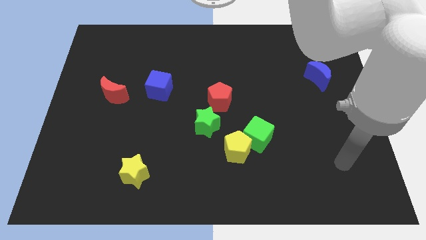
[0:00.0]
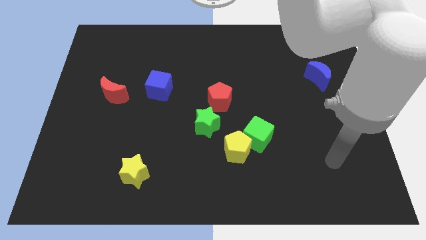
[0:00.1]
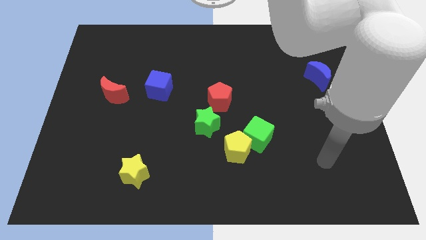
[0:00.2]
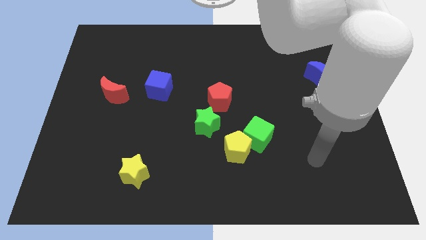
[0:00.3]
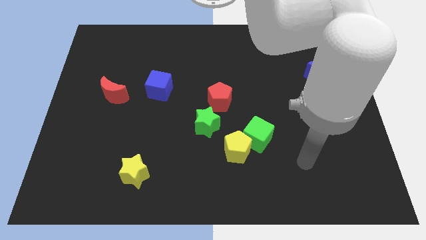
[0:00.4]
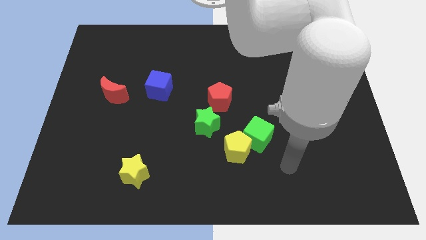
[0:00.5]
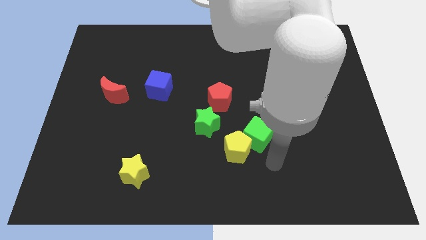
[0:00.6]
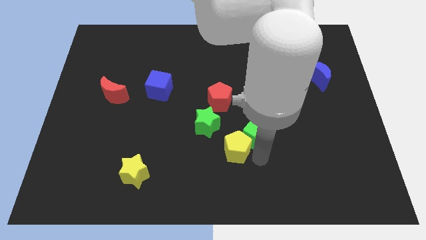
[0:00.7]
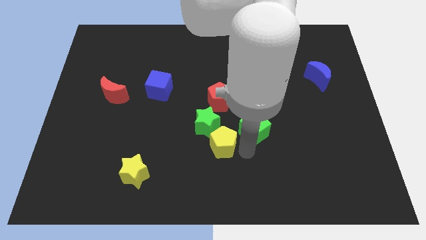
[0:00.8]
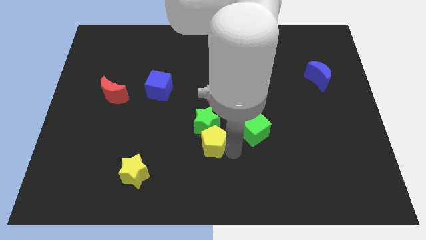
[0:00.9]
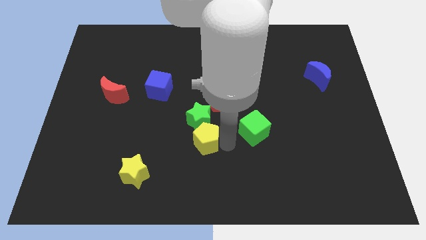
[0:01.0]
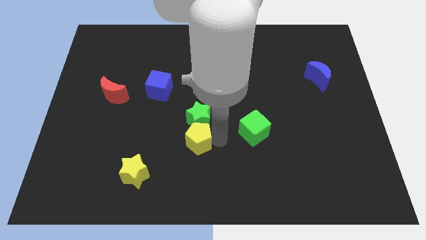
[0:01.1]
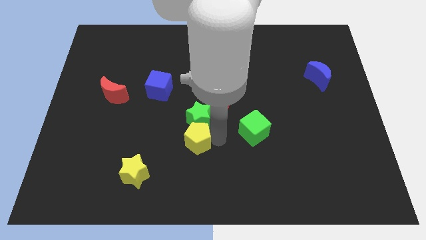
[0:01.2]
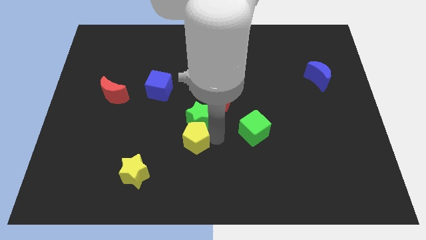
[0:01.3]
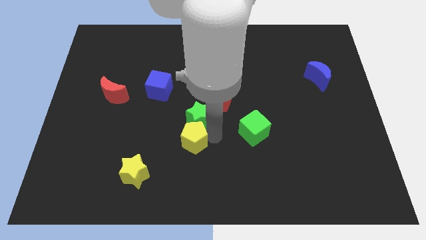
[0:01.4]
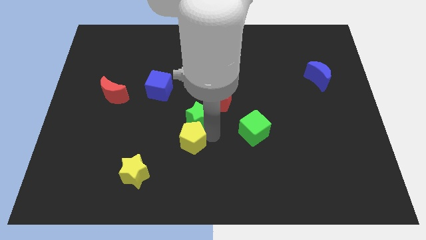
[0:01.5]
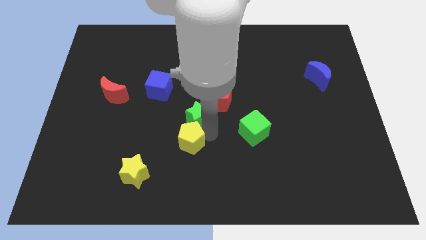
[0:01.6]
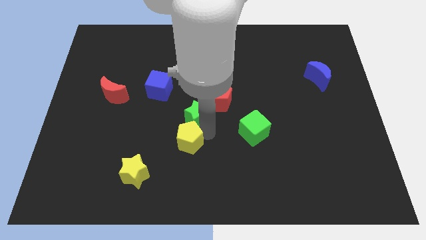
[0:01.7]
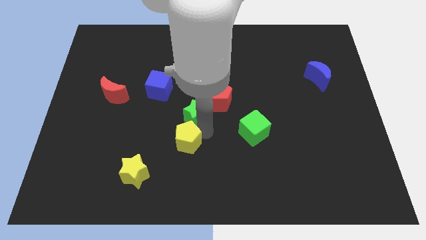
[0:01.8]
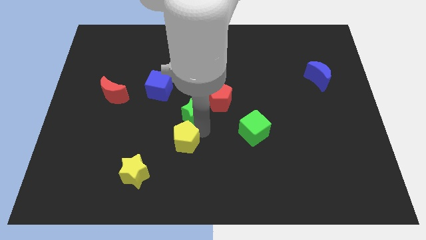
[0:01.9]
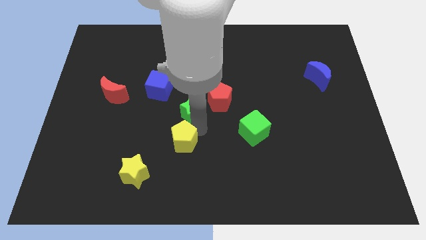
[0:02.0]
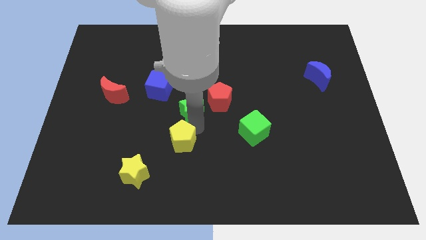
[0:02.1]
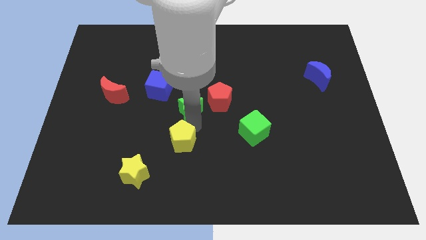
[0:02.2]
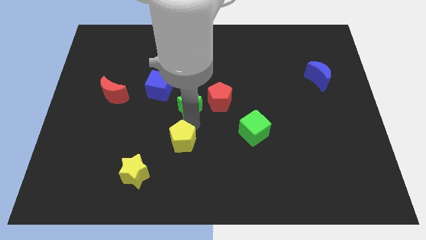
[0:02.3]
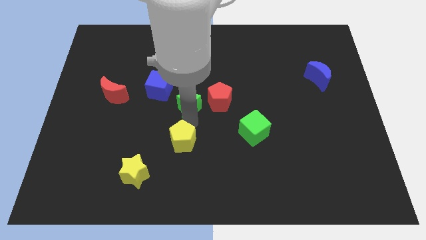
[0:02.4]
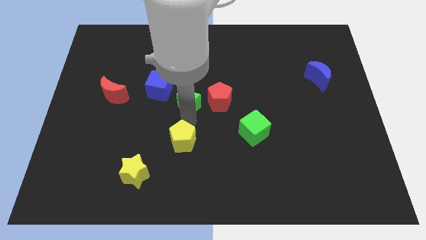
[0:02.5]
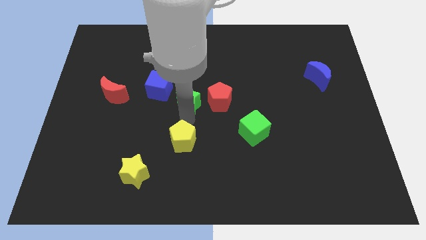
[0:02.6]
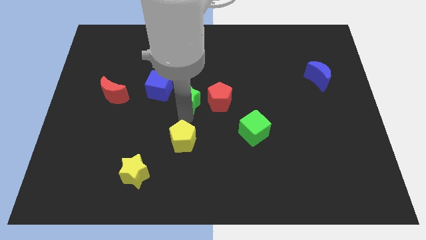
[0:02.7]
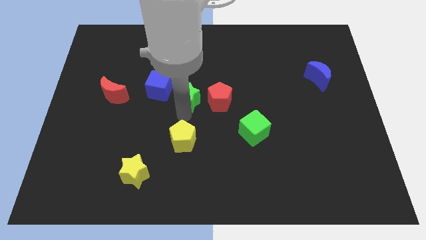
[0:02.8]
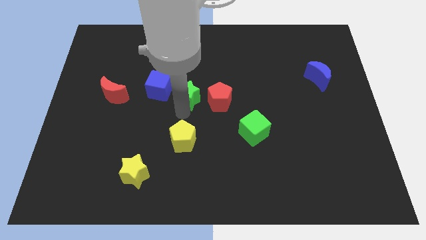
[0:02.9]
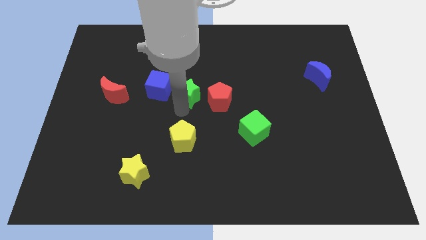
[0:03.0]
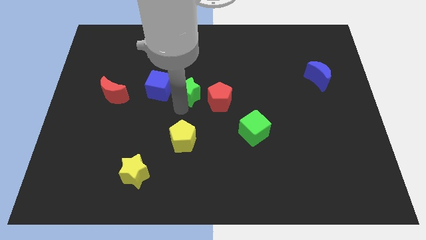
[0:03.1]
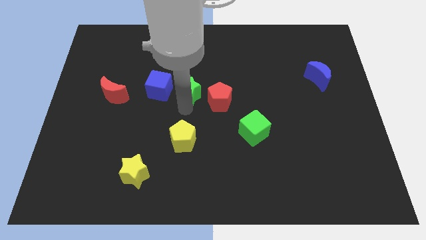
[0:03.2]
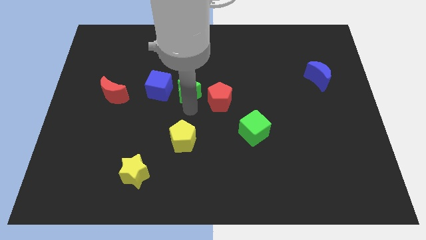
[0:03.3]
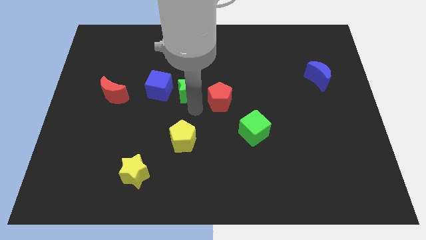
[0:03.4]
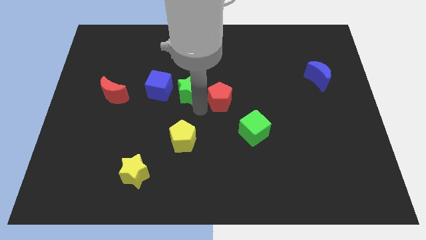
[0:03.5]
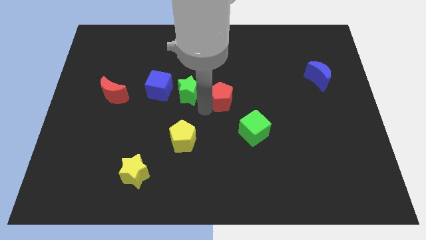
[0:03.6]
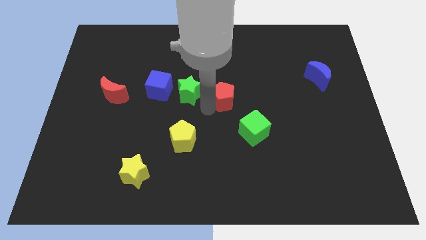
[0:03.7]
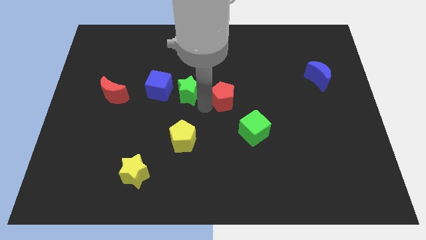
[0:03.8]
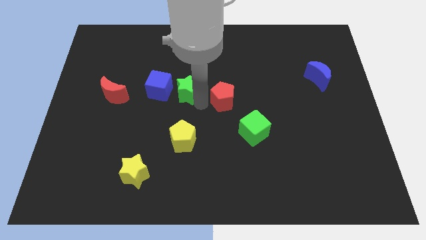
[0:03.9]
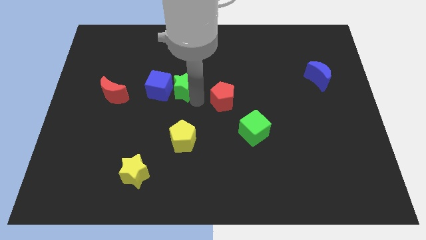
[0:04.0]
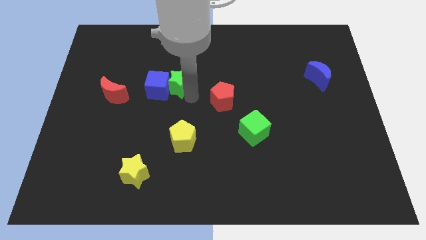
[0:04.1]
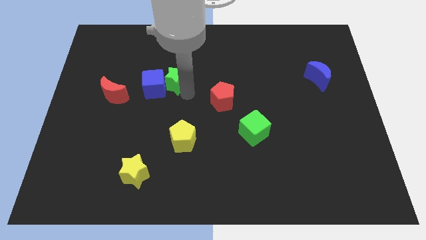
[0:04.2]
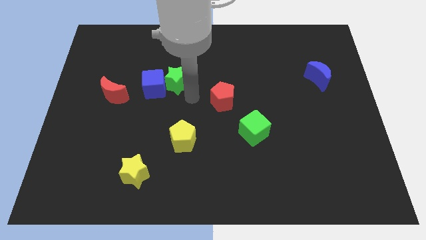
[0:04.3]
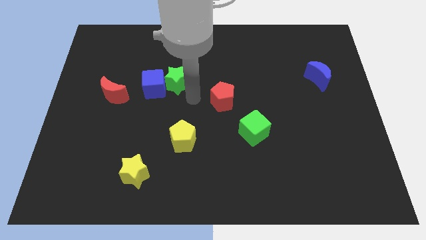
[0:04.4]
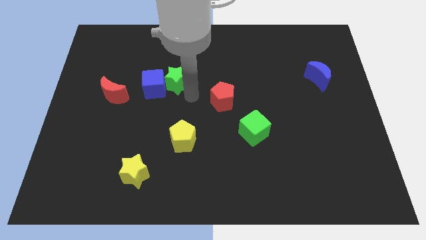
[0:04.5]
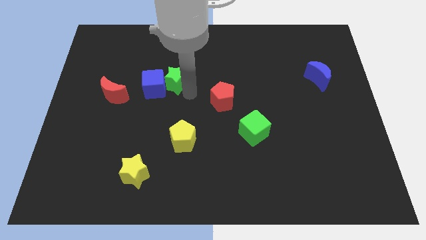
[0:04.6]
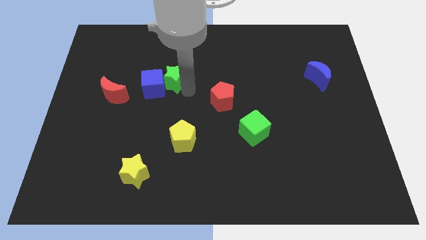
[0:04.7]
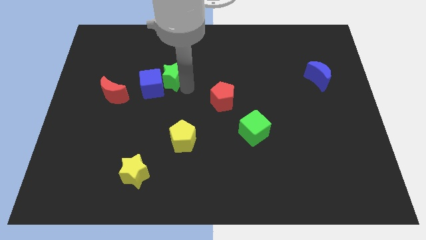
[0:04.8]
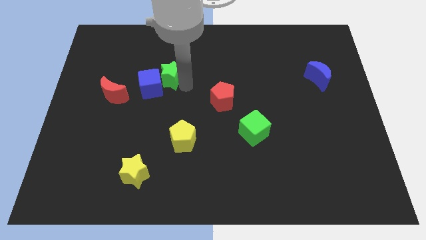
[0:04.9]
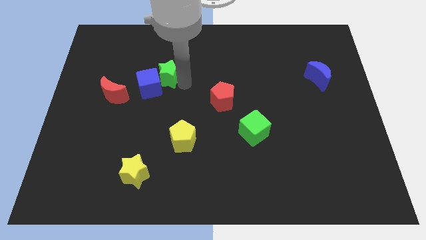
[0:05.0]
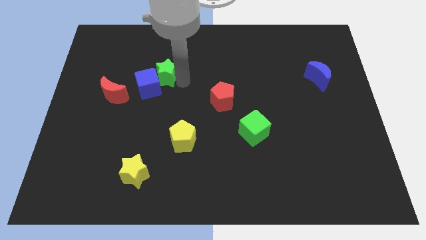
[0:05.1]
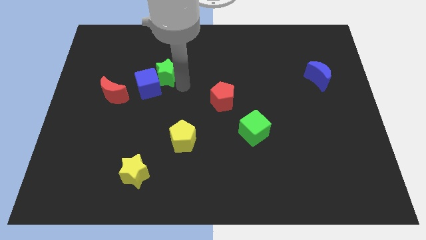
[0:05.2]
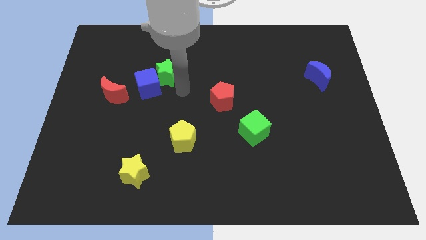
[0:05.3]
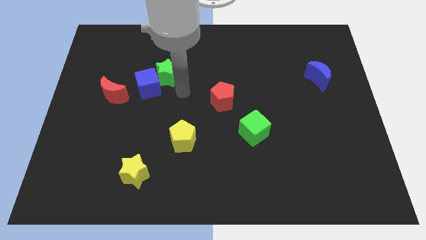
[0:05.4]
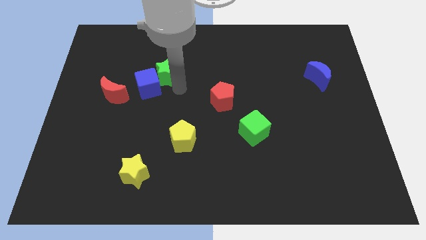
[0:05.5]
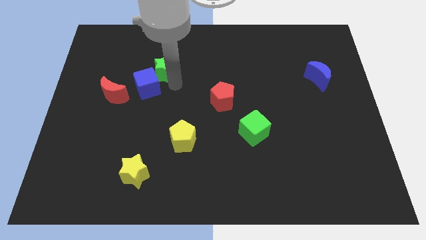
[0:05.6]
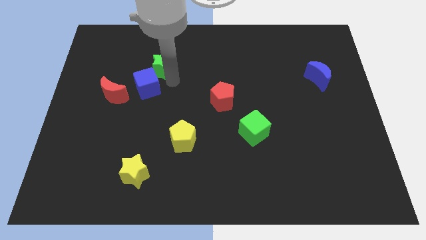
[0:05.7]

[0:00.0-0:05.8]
slide the green star up and then left

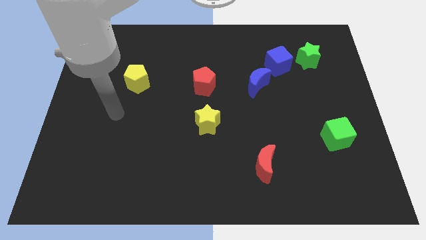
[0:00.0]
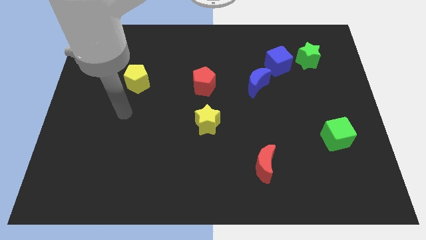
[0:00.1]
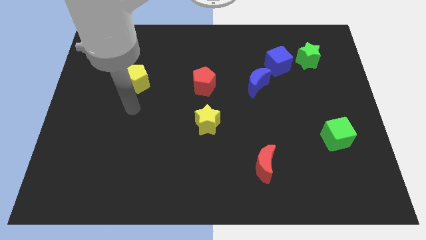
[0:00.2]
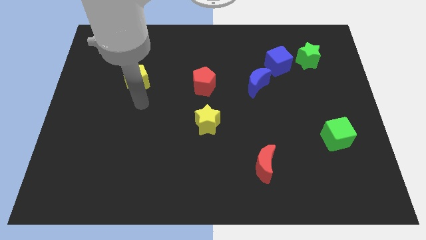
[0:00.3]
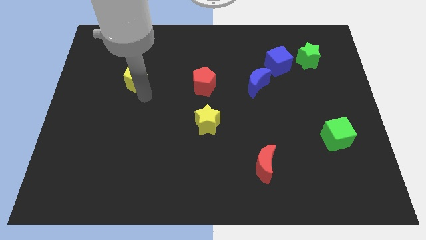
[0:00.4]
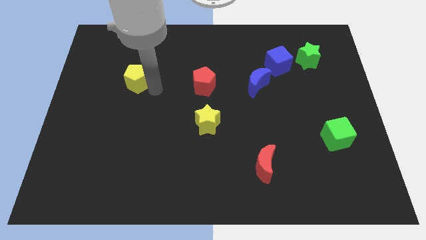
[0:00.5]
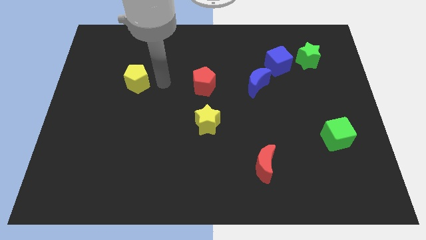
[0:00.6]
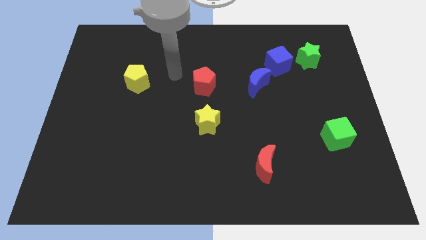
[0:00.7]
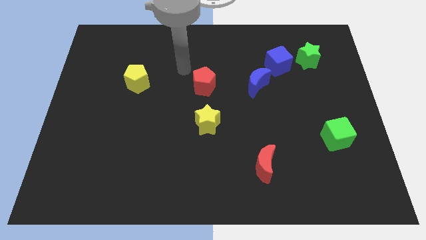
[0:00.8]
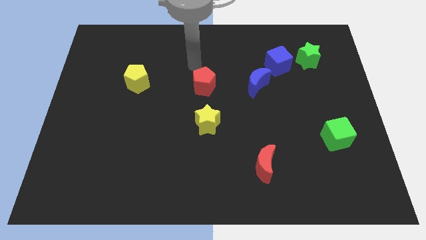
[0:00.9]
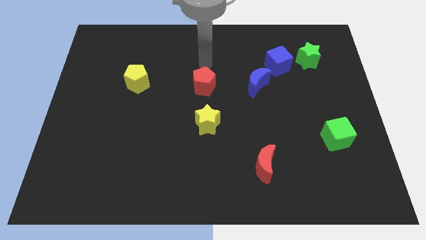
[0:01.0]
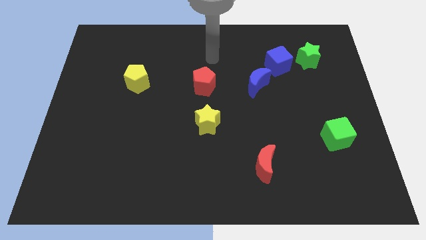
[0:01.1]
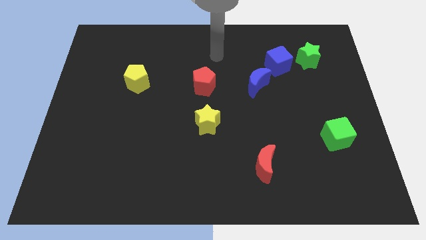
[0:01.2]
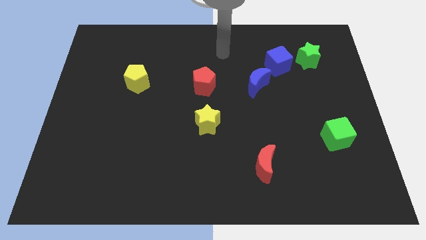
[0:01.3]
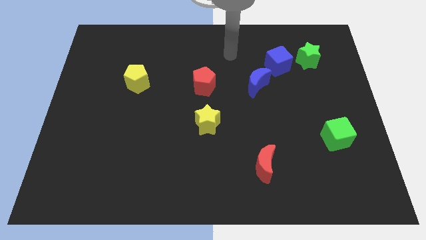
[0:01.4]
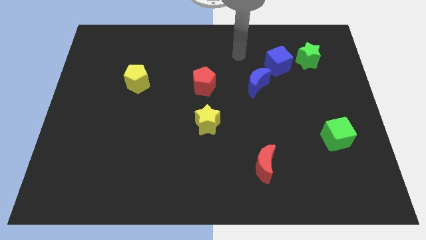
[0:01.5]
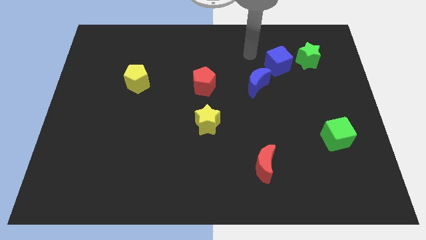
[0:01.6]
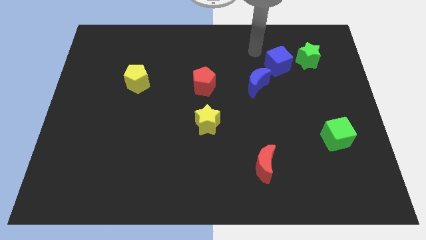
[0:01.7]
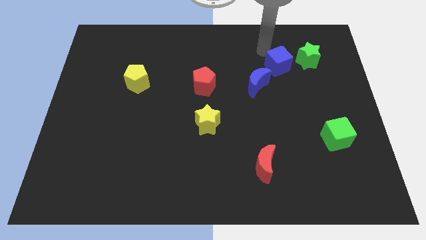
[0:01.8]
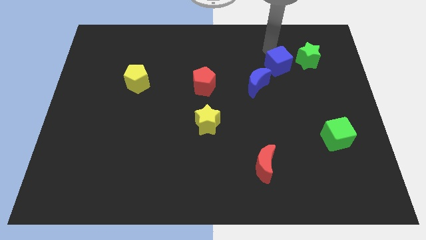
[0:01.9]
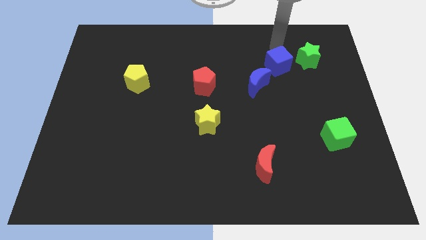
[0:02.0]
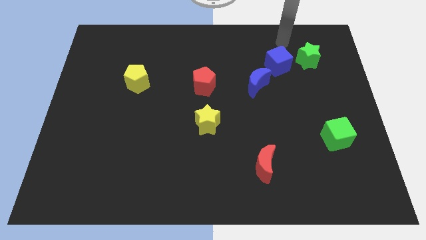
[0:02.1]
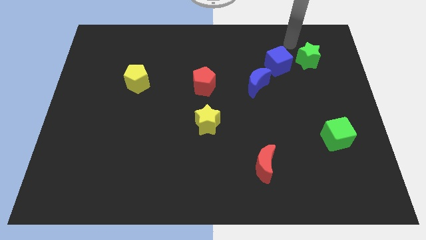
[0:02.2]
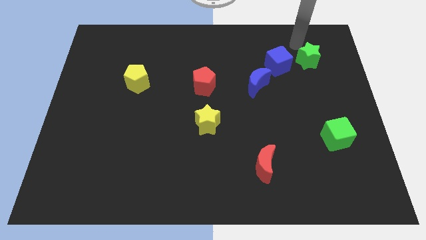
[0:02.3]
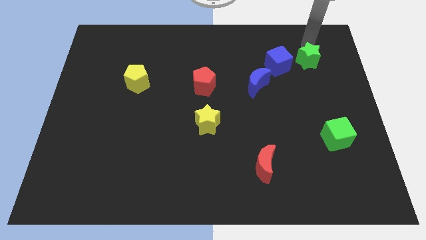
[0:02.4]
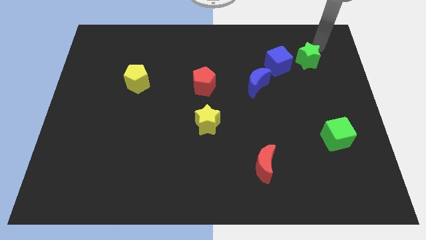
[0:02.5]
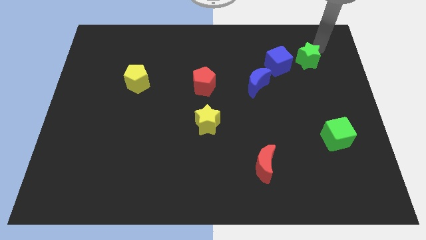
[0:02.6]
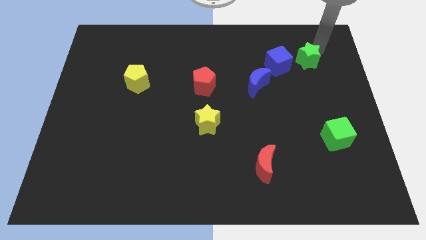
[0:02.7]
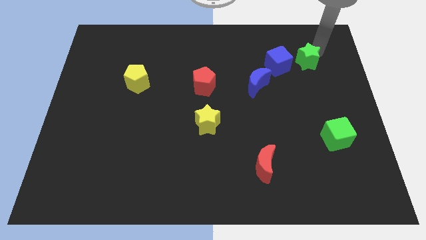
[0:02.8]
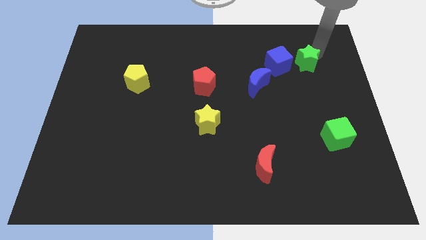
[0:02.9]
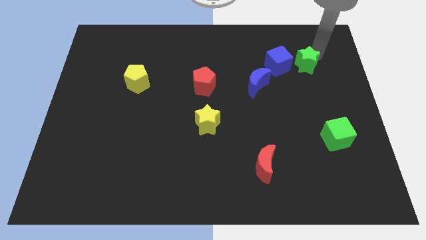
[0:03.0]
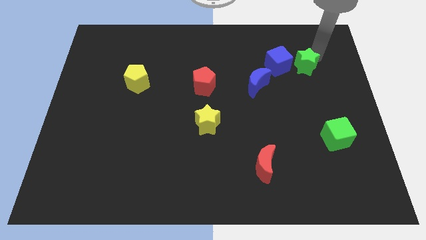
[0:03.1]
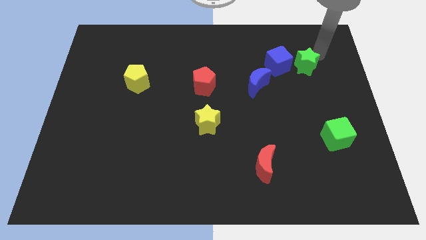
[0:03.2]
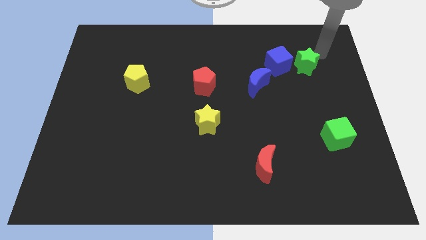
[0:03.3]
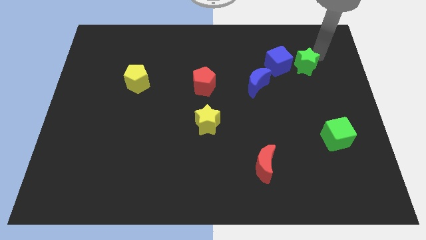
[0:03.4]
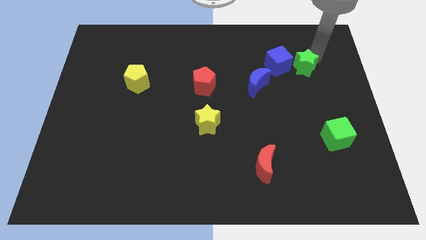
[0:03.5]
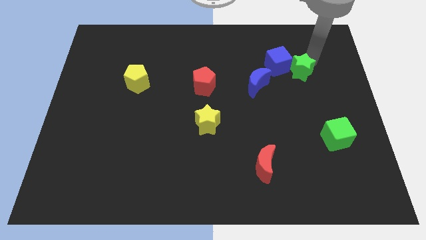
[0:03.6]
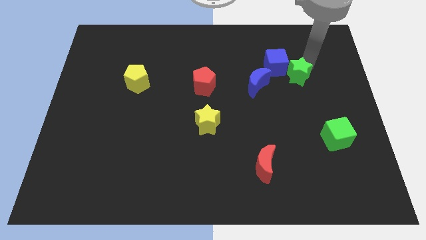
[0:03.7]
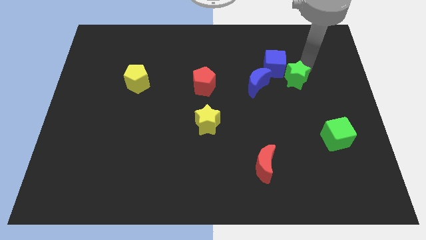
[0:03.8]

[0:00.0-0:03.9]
push the green star somewhat down and then to the left
